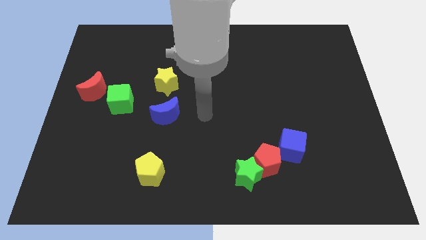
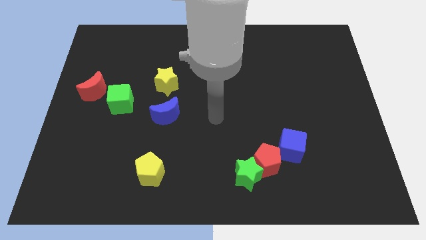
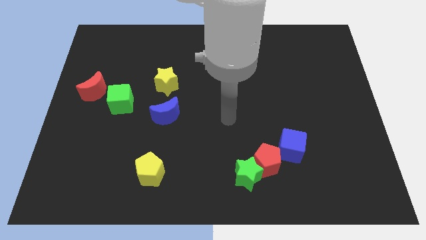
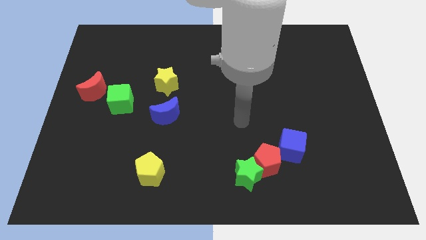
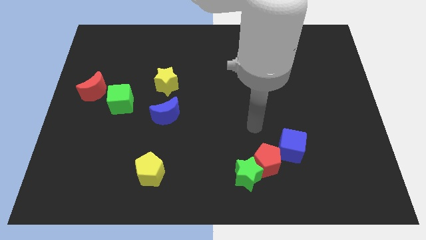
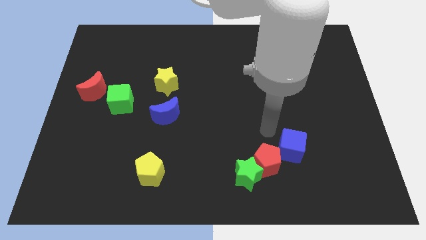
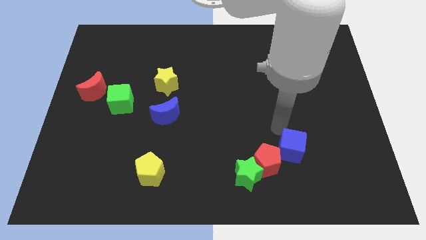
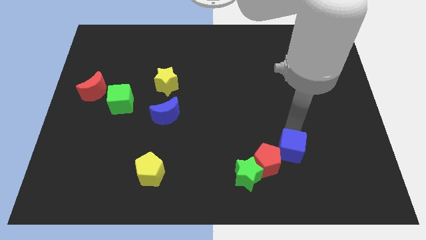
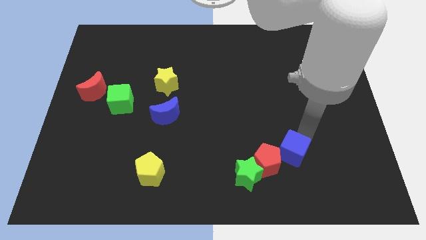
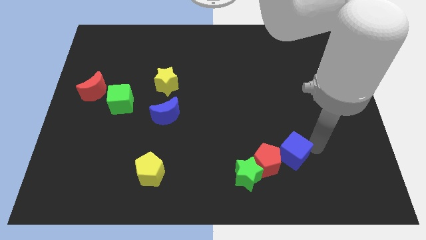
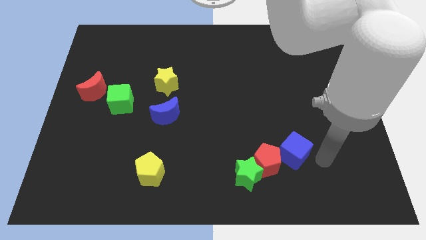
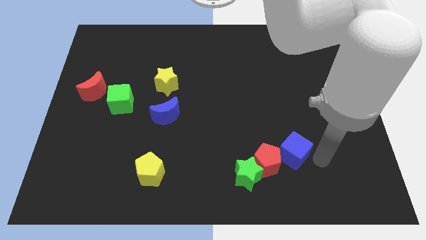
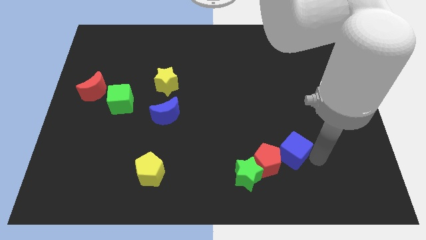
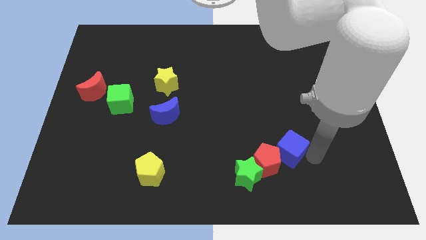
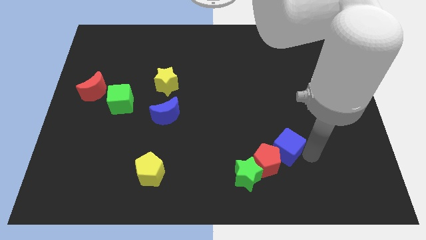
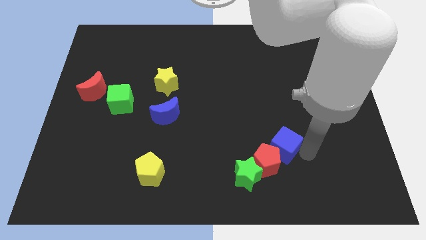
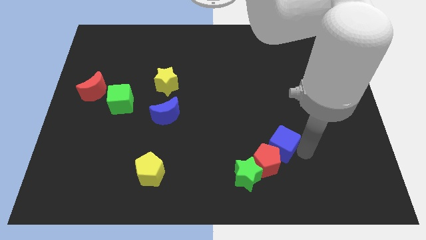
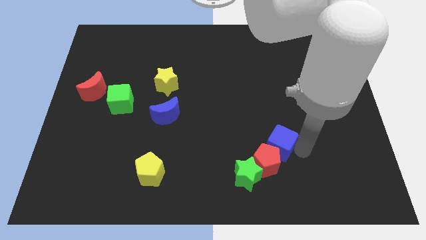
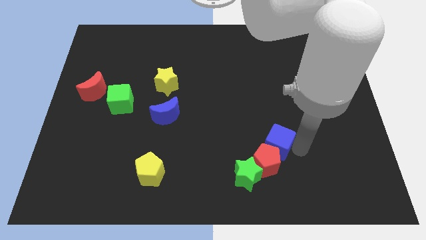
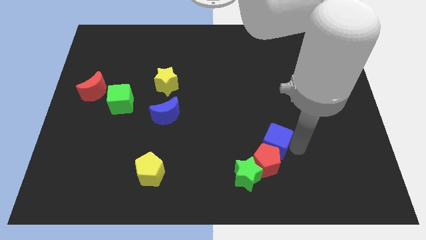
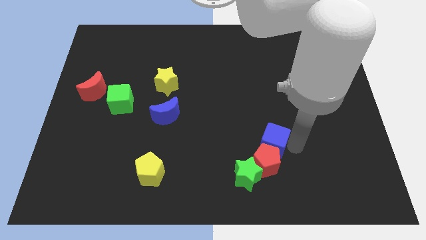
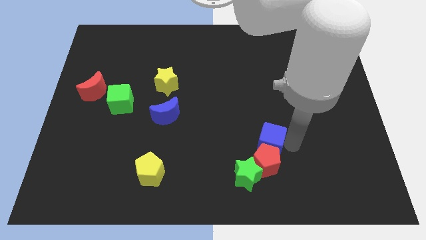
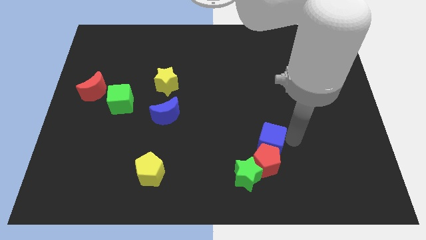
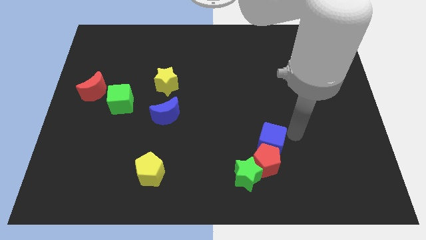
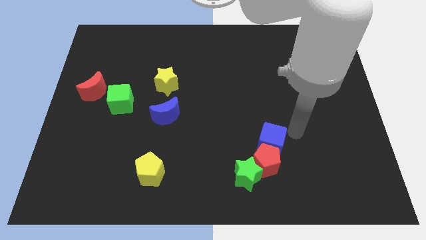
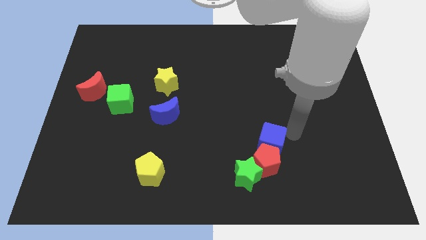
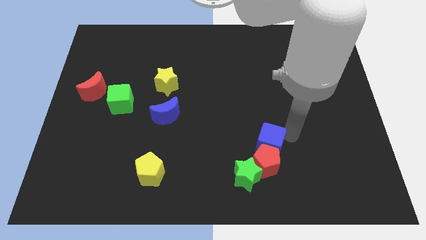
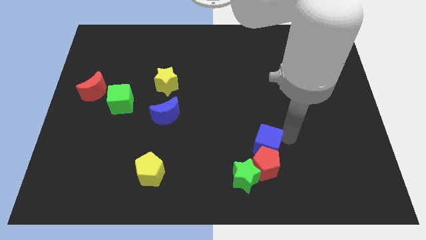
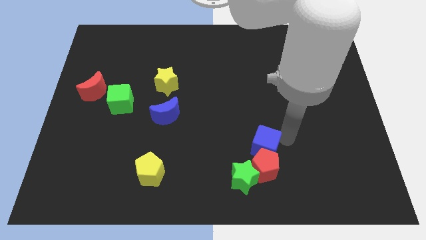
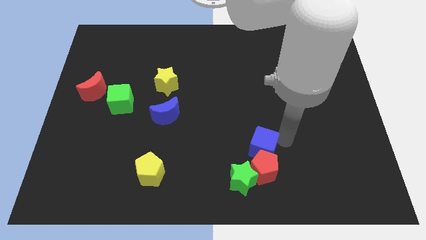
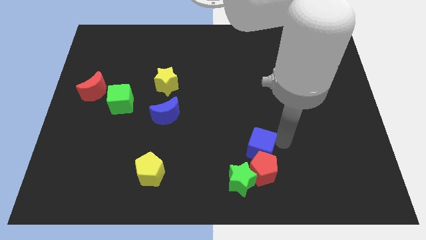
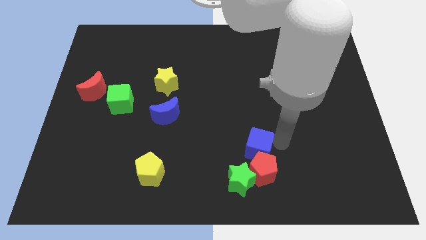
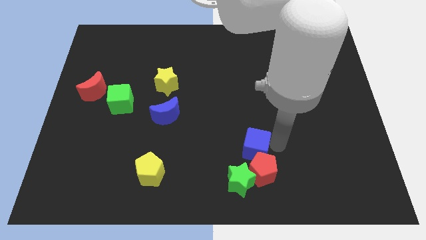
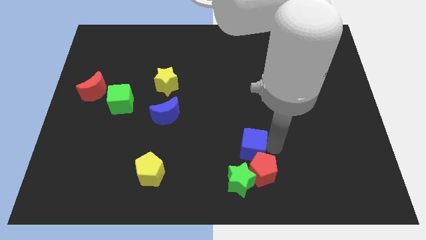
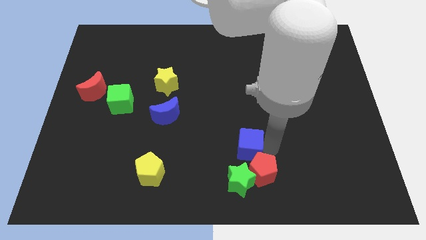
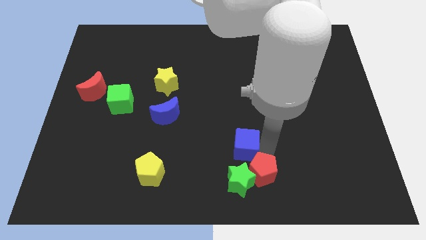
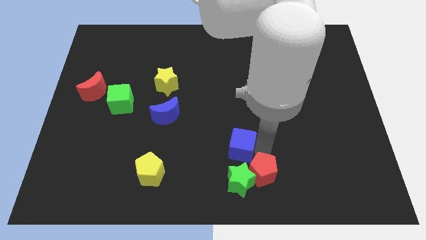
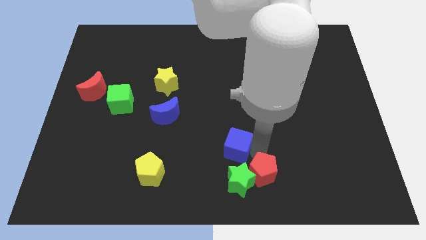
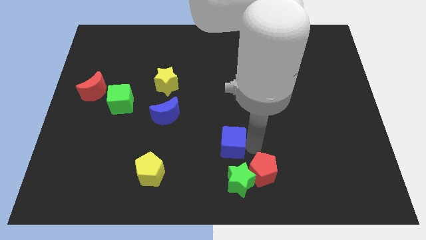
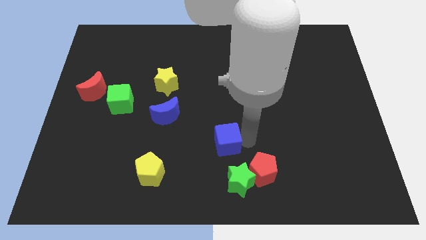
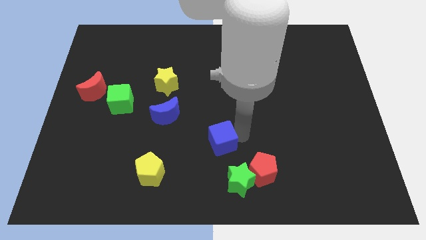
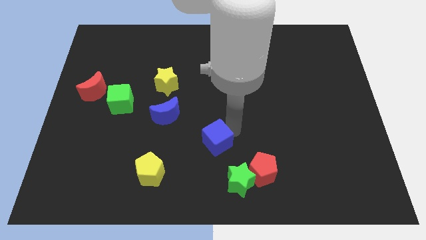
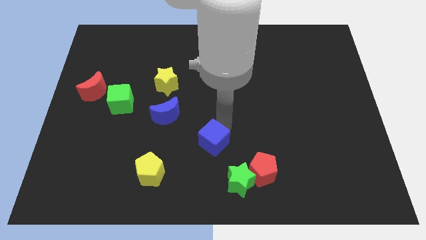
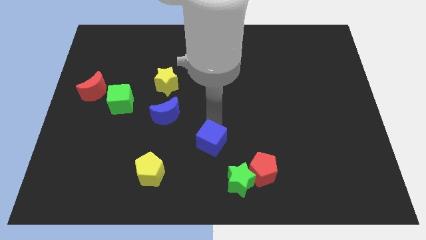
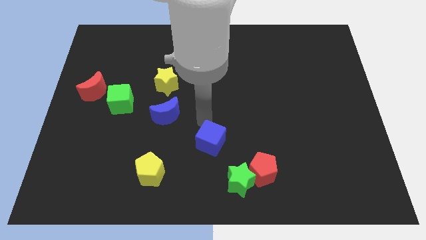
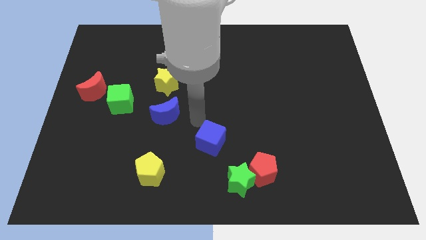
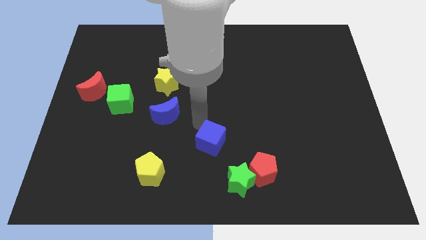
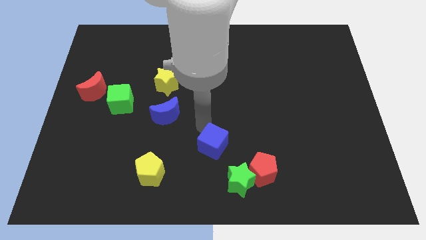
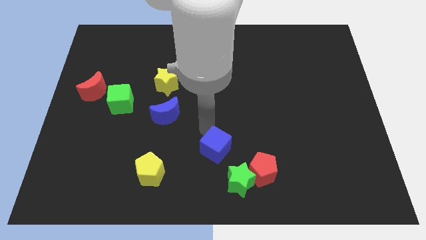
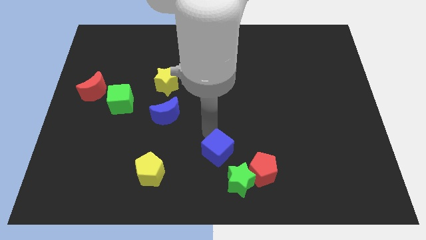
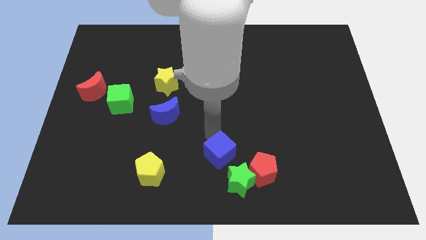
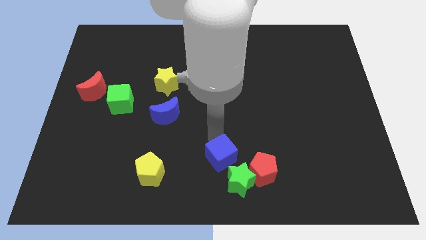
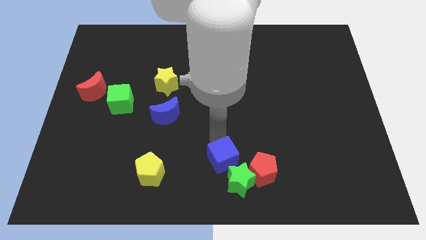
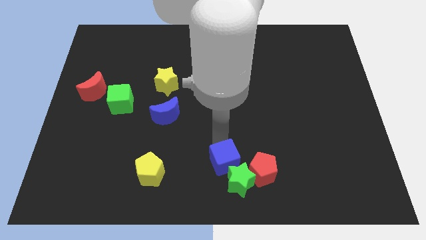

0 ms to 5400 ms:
slide the blue cube close to the green star

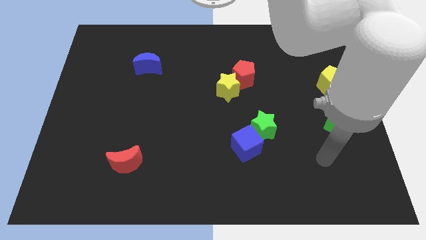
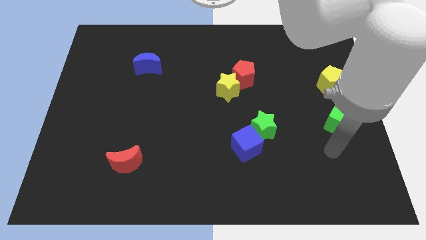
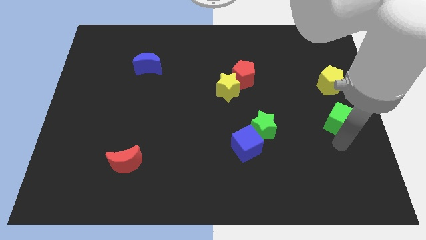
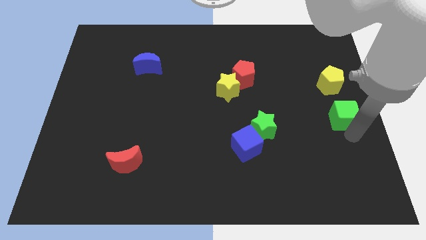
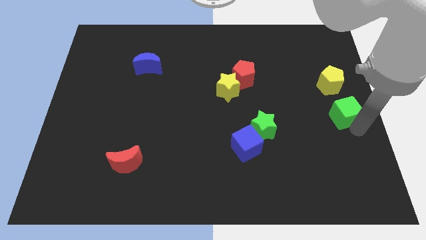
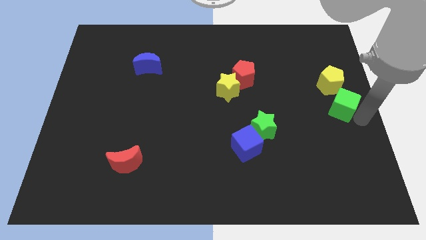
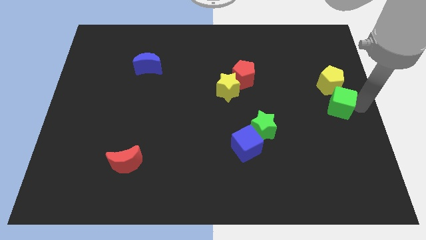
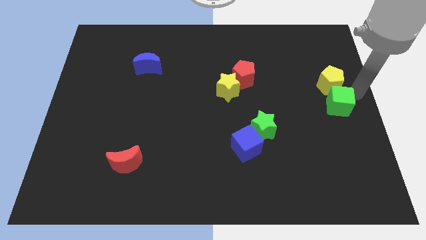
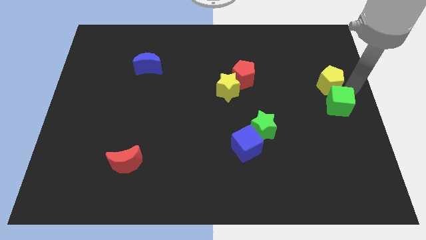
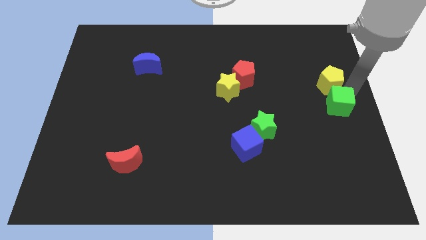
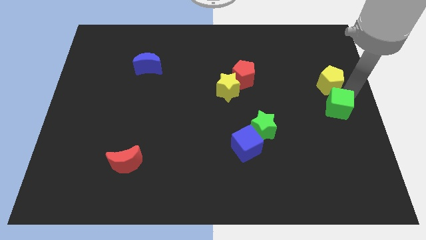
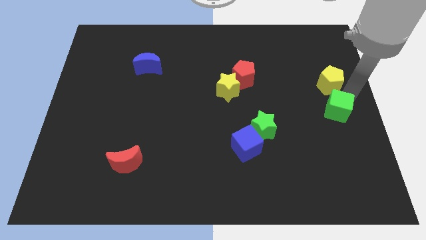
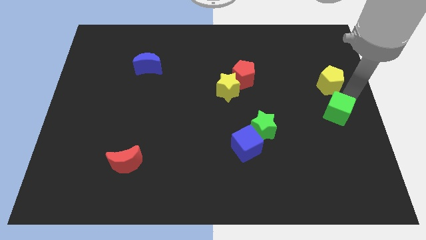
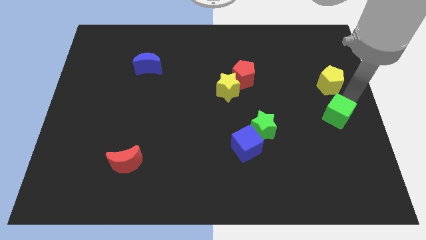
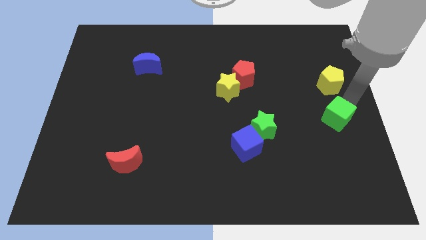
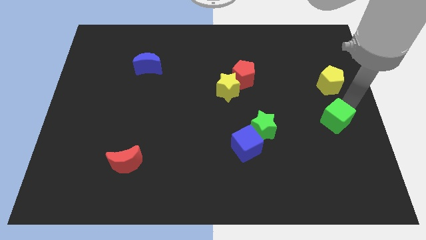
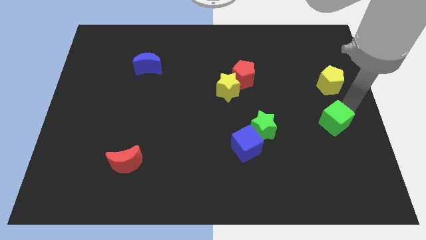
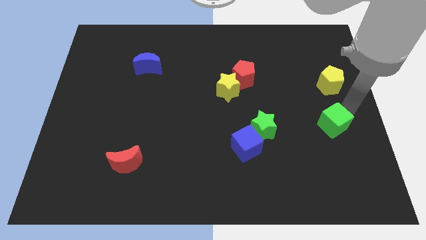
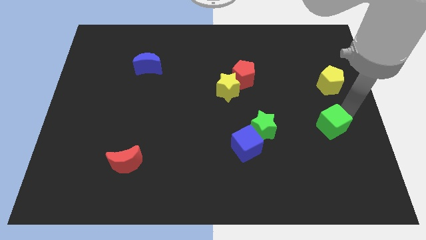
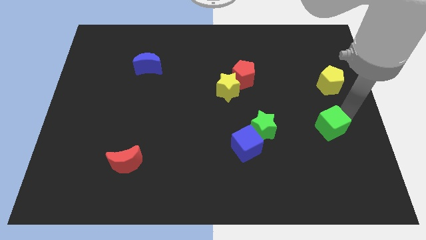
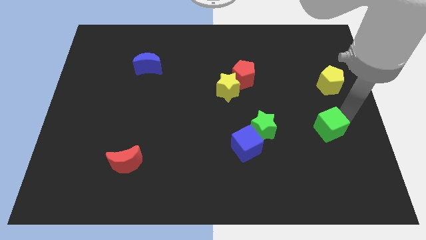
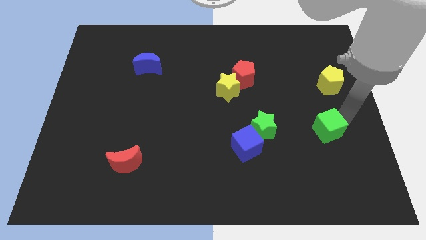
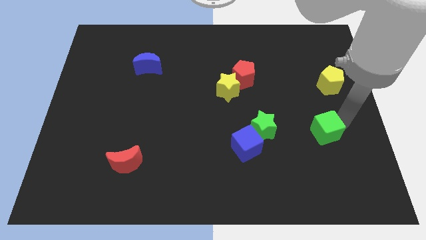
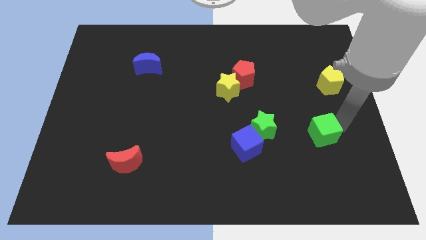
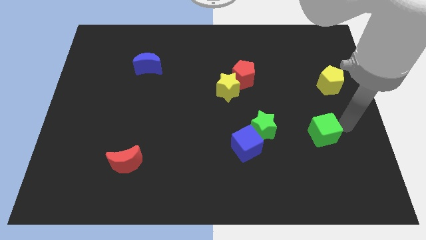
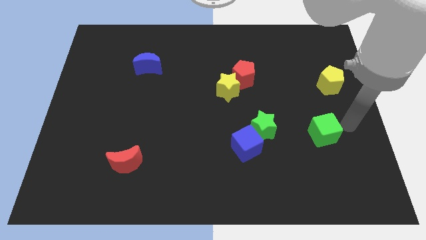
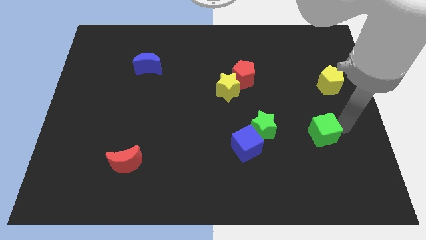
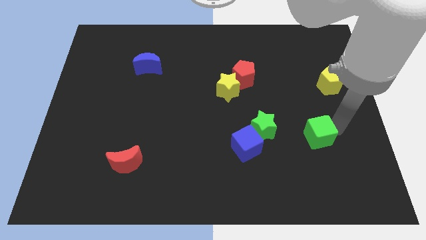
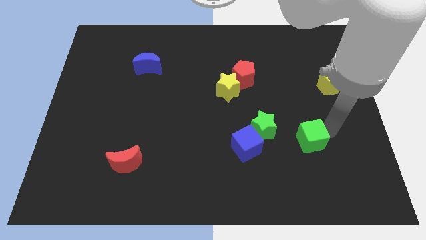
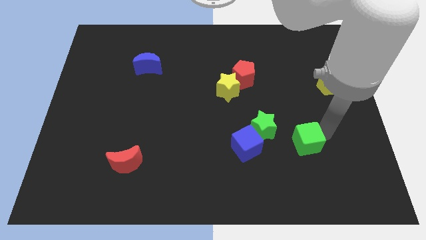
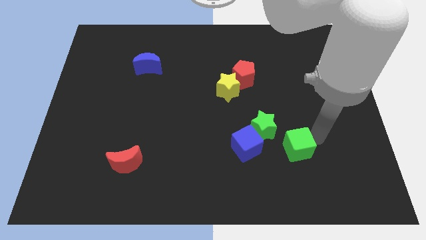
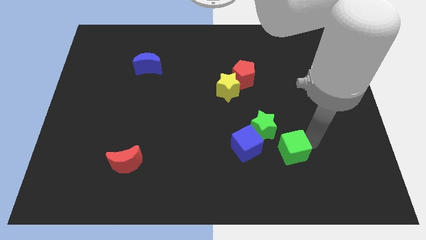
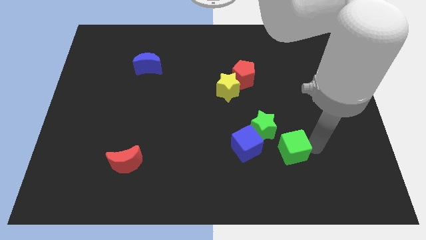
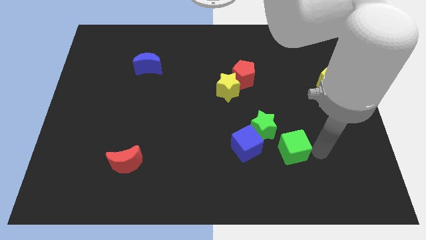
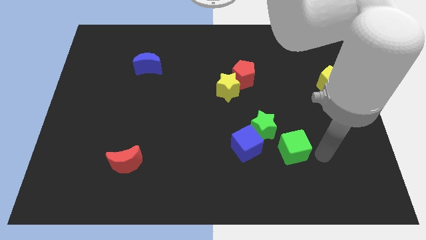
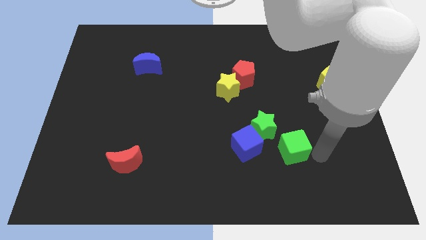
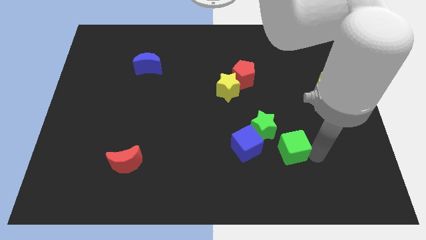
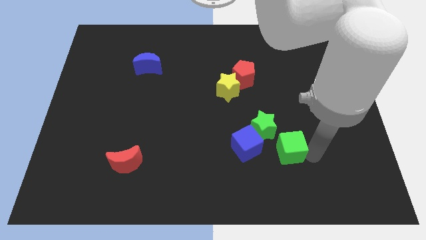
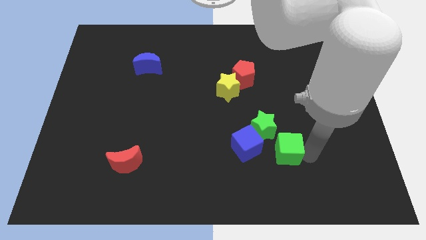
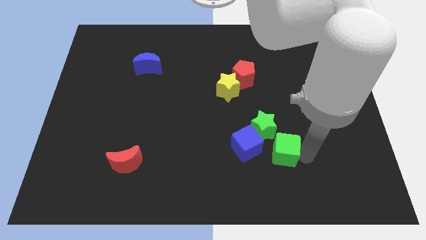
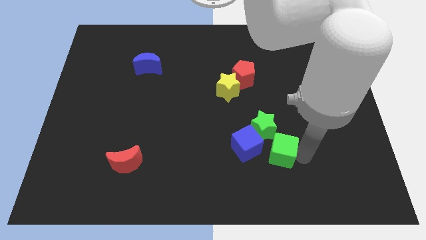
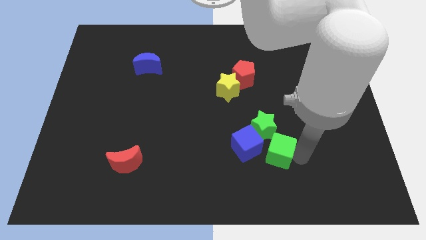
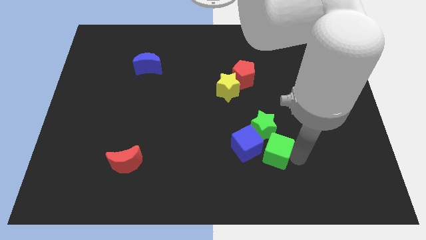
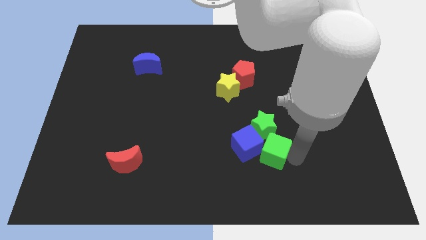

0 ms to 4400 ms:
move the green cube to the blue cube
